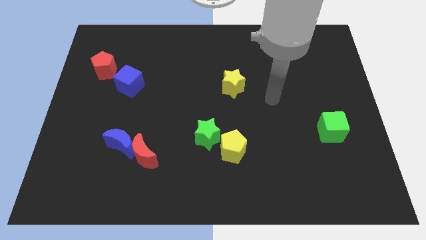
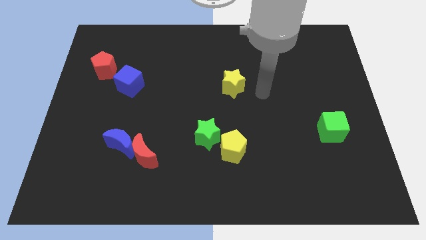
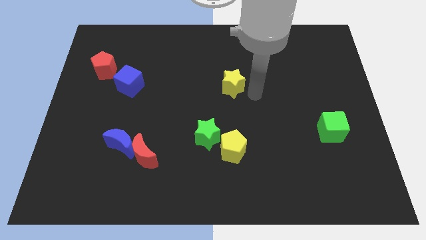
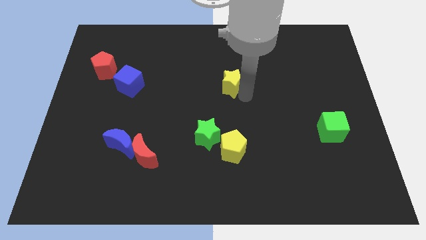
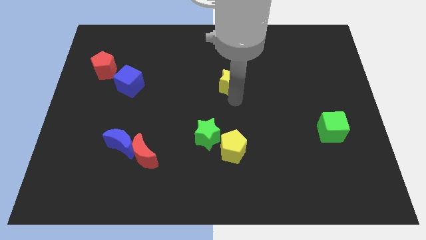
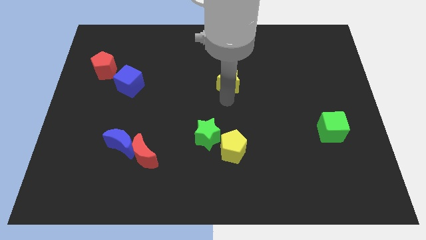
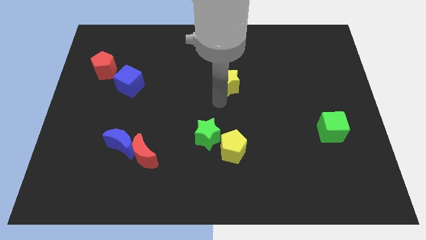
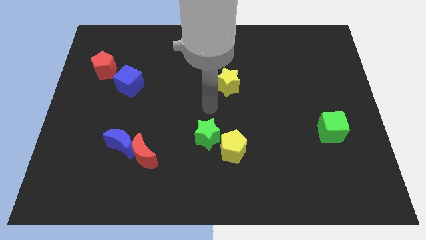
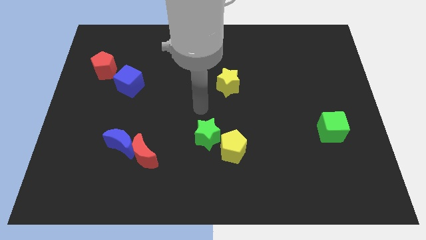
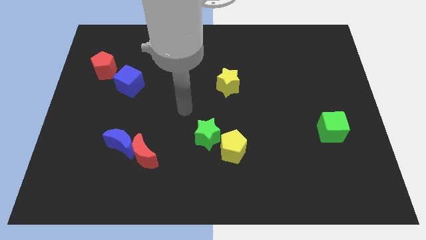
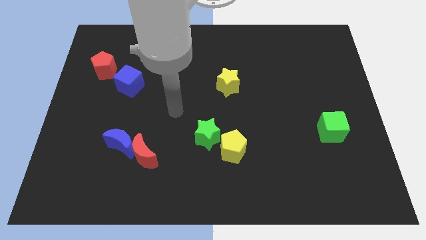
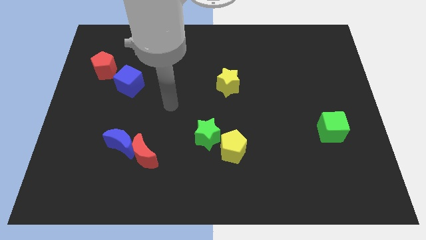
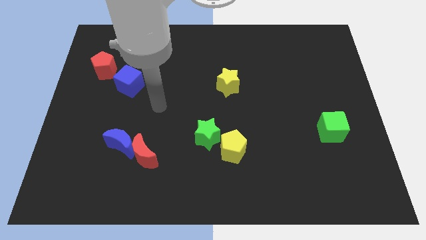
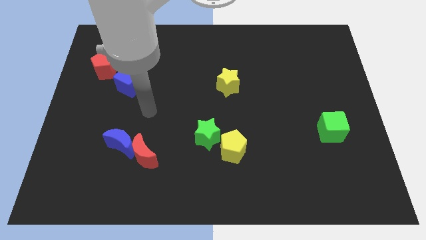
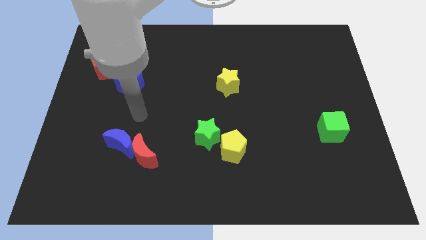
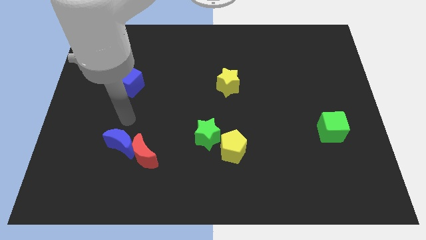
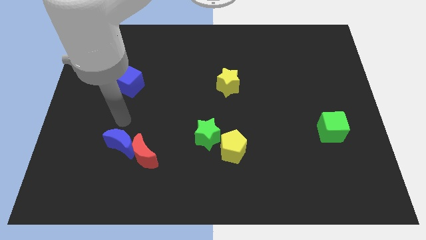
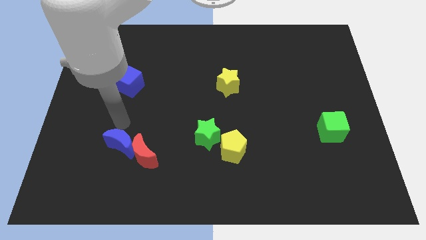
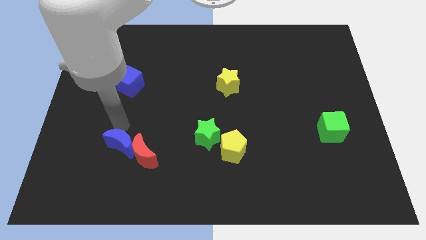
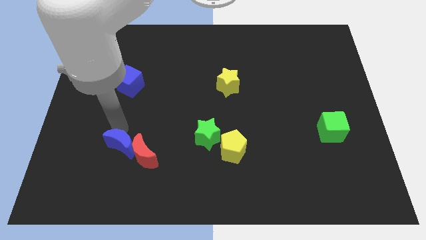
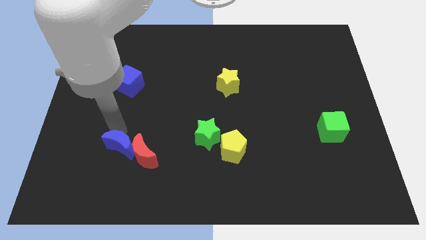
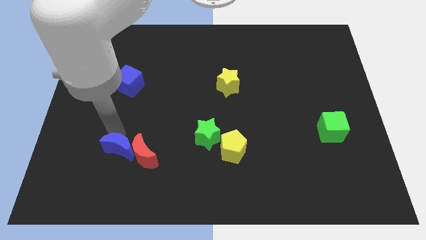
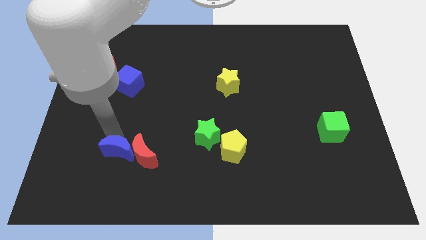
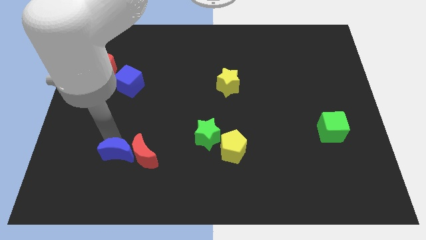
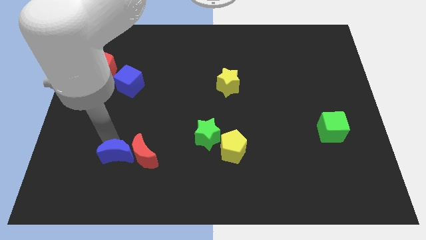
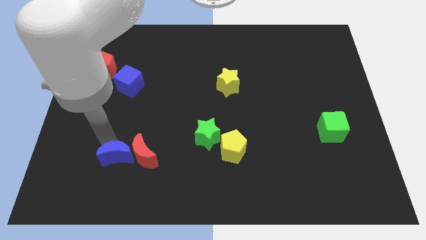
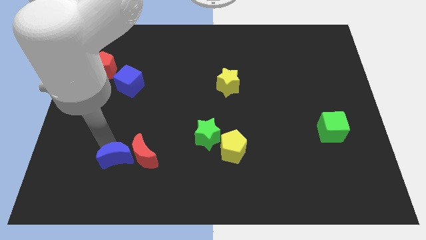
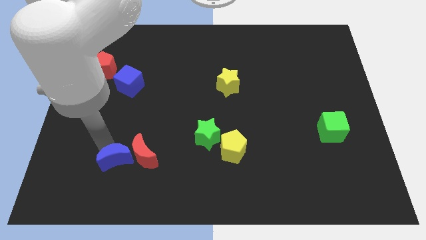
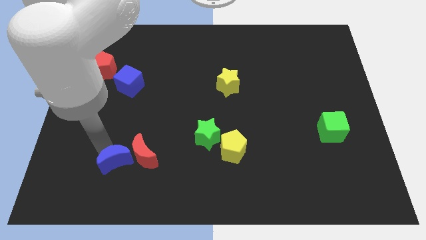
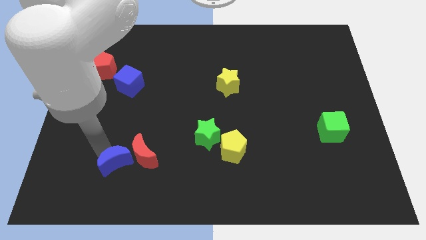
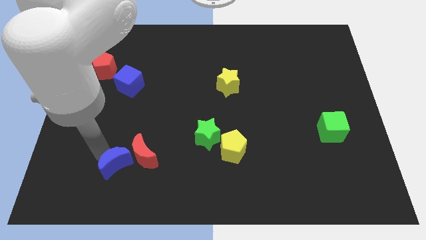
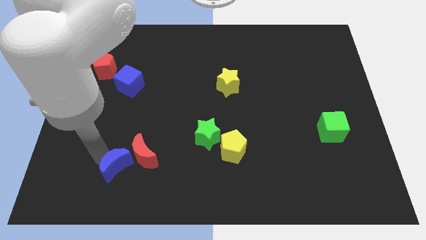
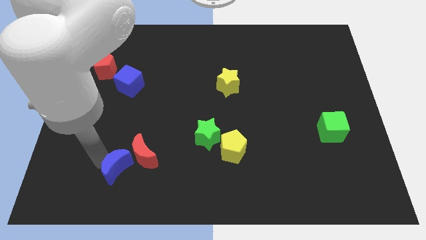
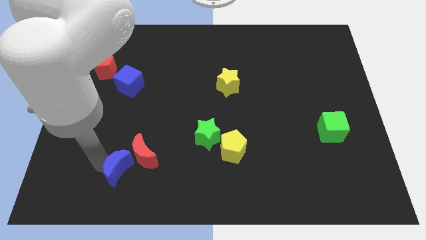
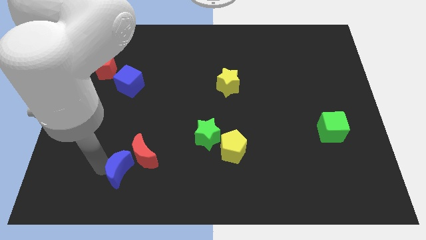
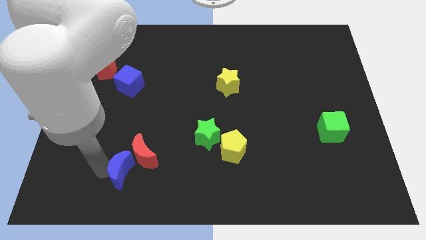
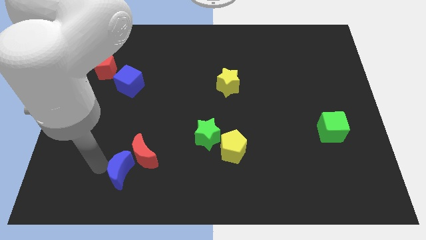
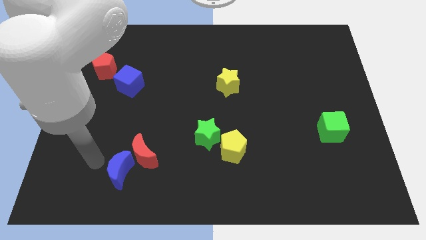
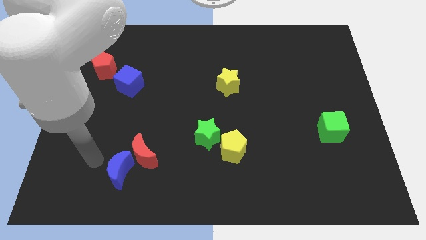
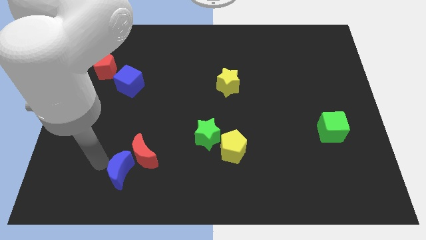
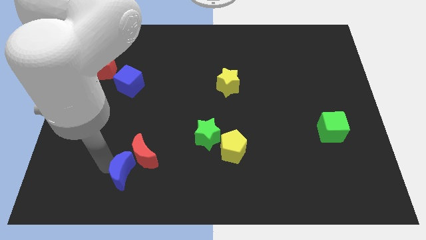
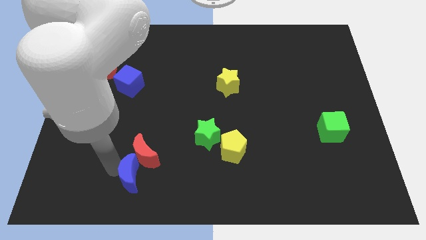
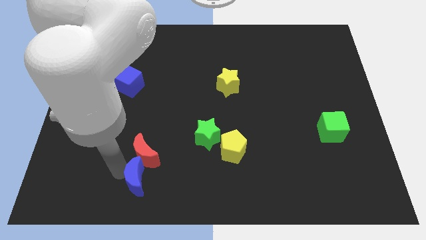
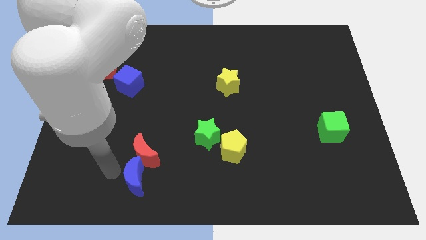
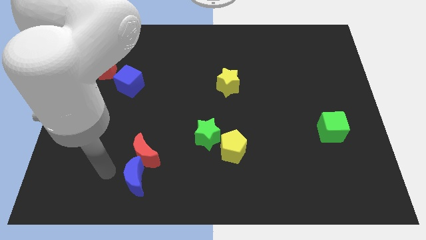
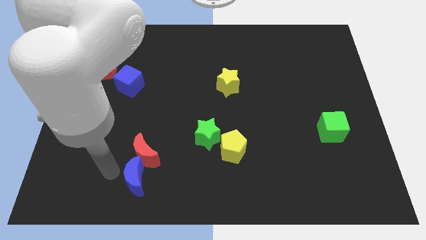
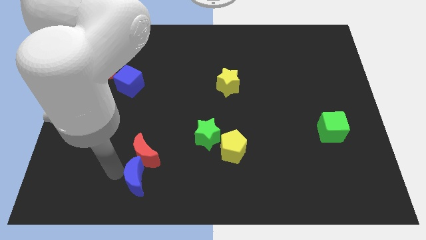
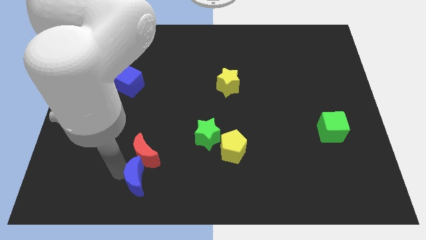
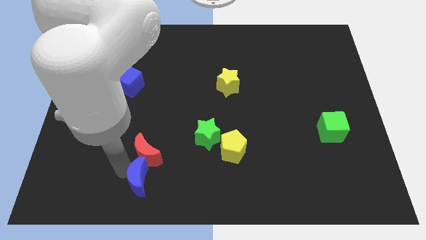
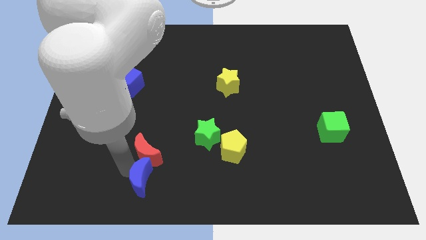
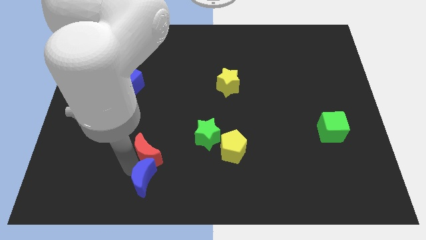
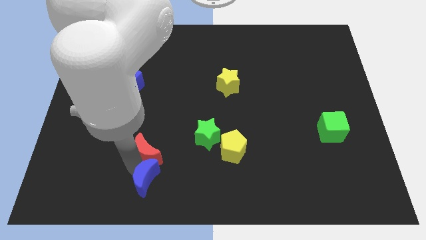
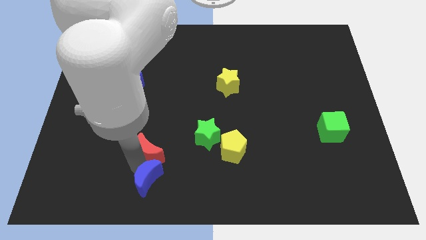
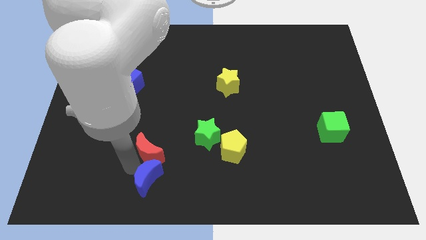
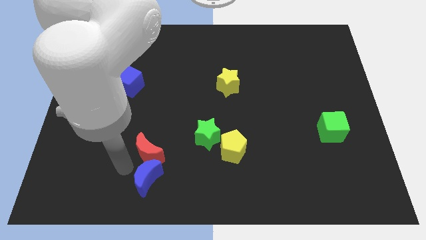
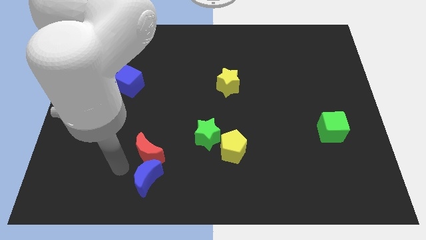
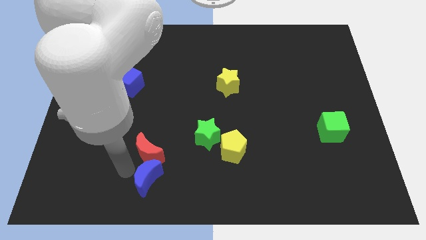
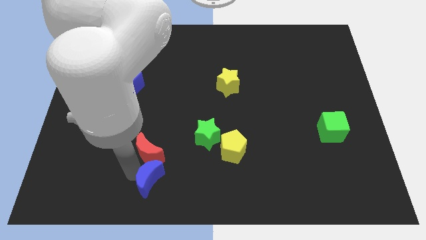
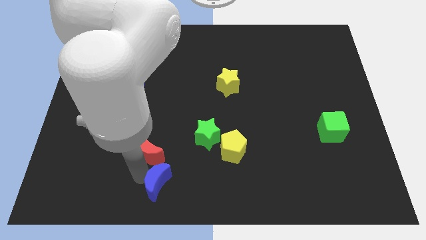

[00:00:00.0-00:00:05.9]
push the blue moon to the bottom side

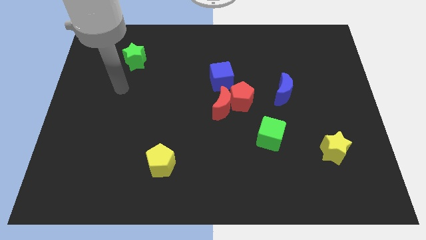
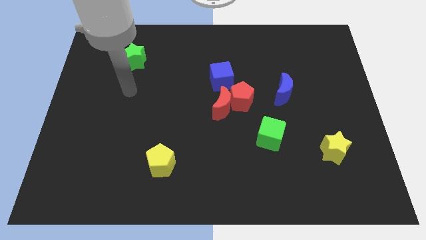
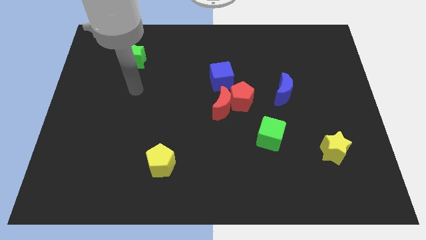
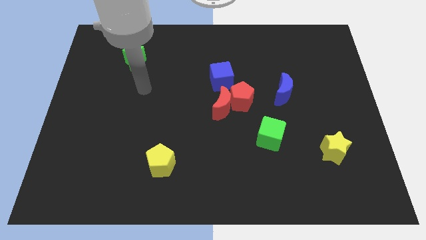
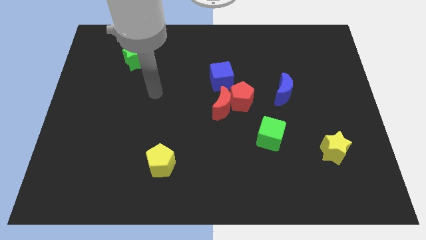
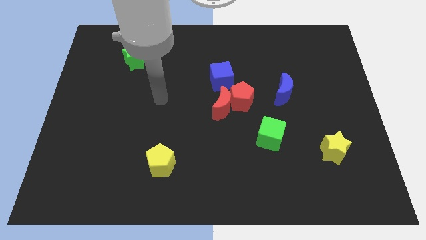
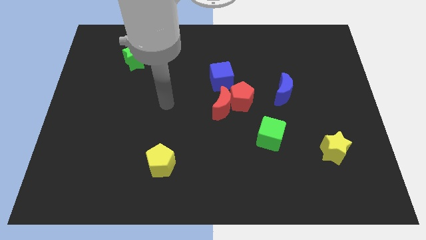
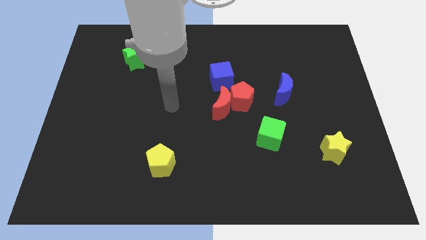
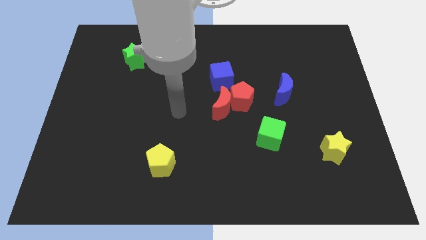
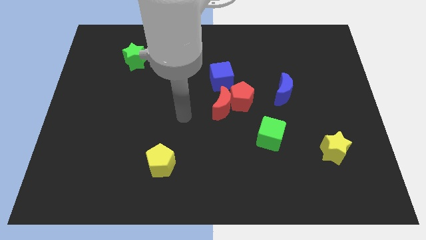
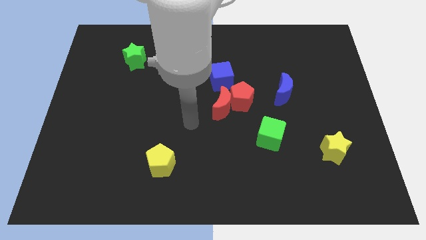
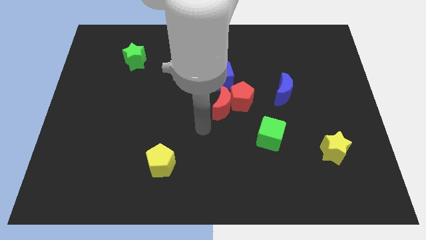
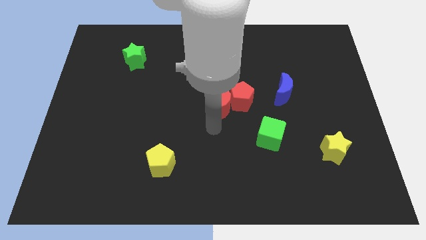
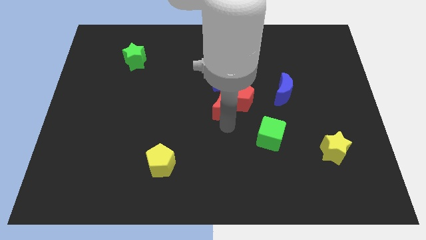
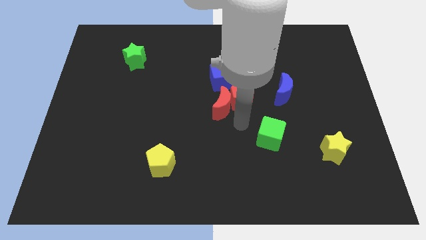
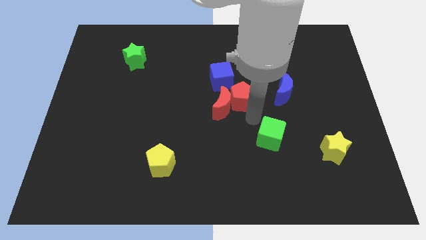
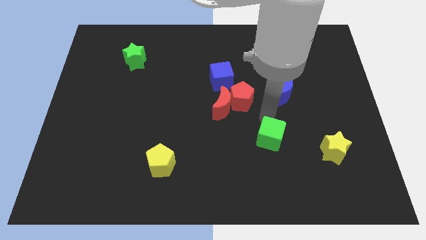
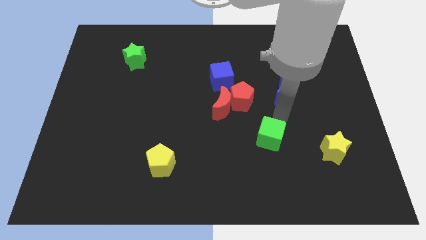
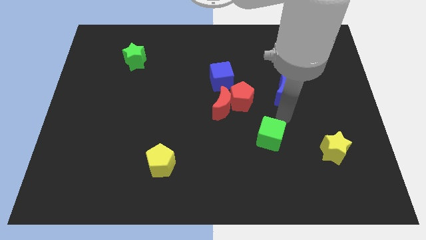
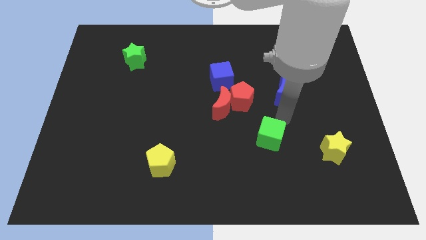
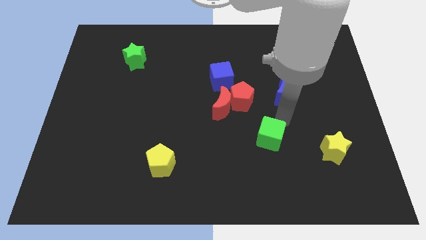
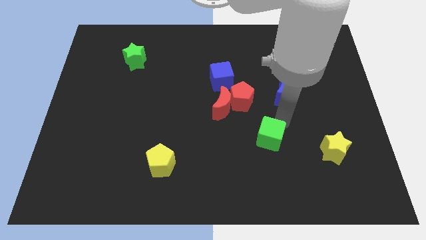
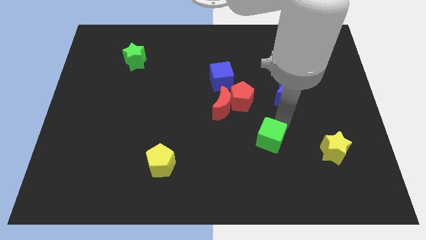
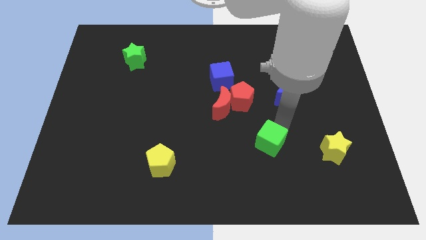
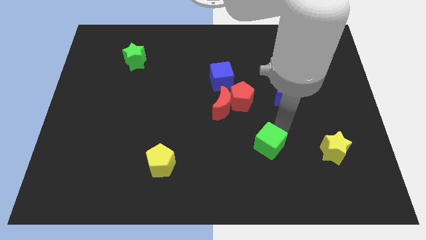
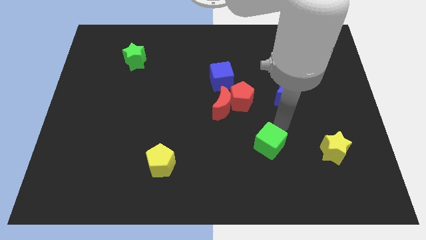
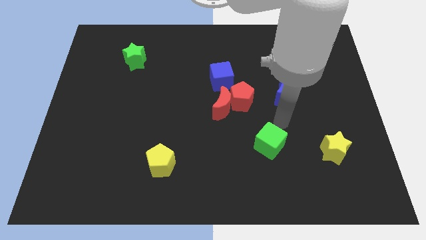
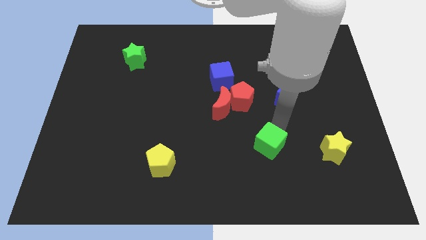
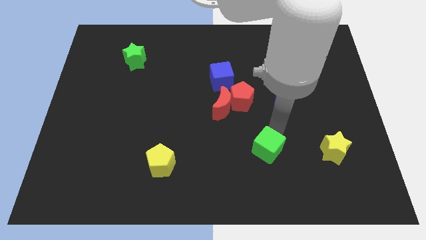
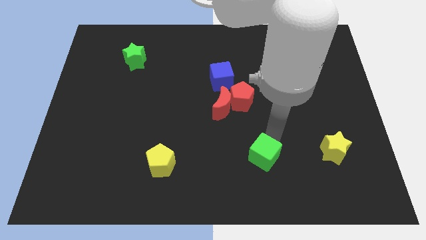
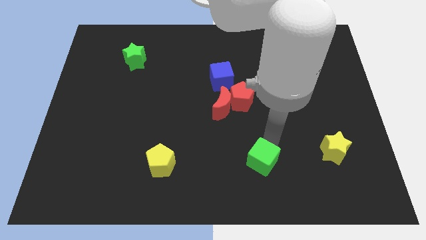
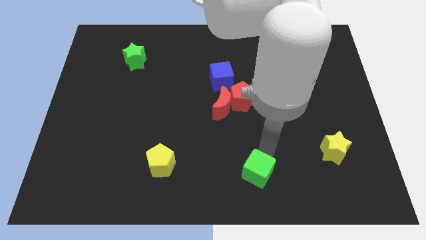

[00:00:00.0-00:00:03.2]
put the green cube to the bottom
